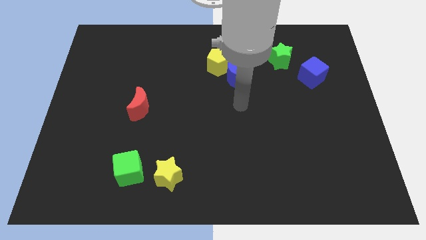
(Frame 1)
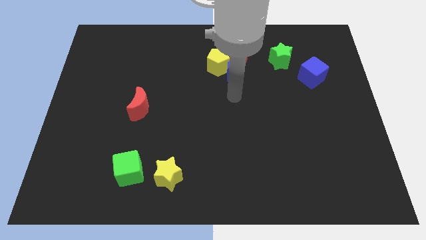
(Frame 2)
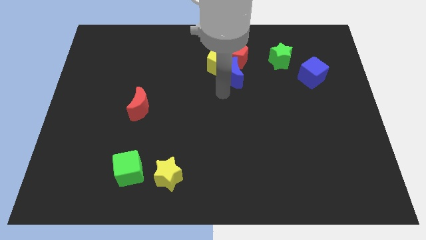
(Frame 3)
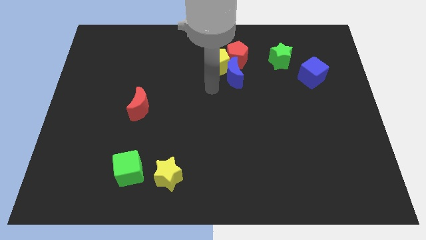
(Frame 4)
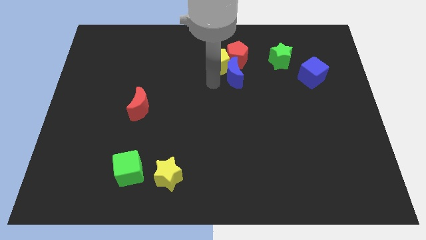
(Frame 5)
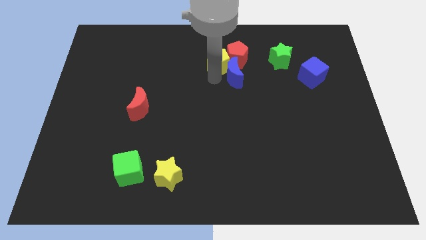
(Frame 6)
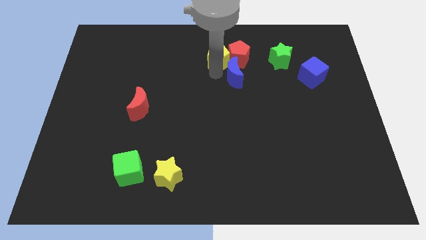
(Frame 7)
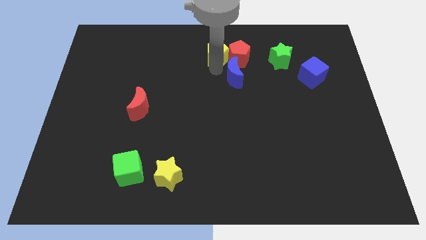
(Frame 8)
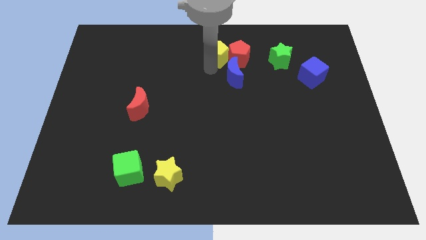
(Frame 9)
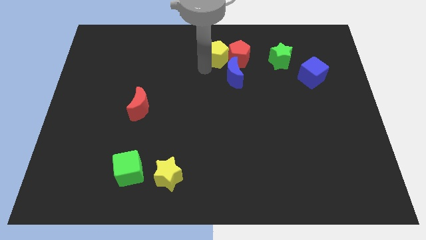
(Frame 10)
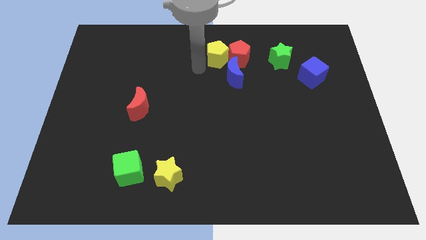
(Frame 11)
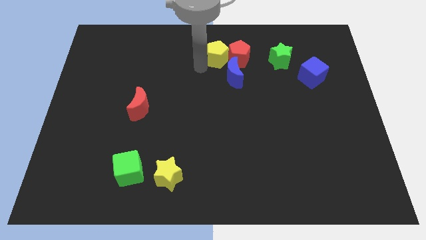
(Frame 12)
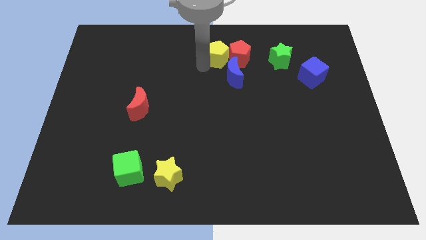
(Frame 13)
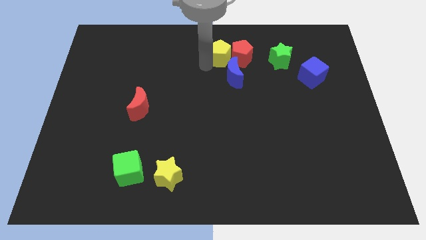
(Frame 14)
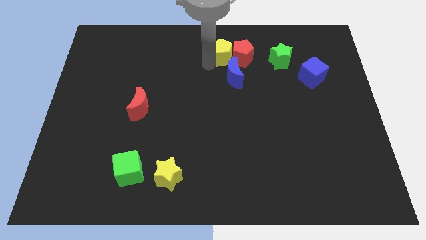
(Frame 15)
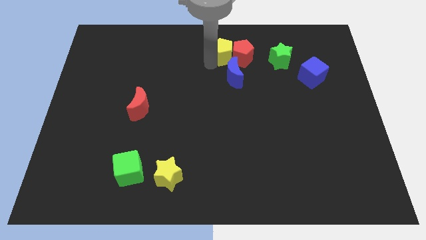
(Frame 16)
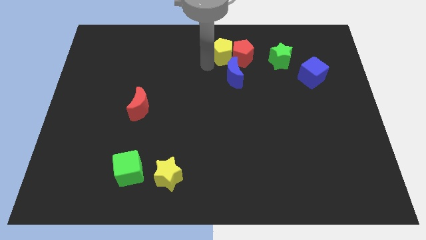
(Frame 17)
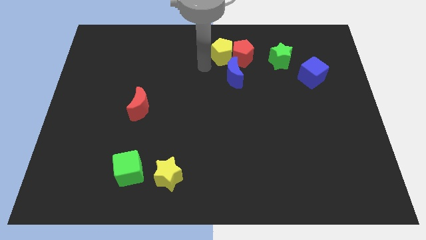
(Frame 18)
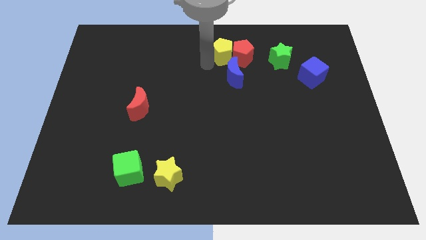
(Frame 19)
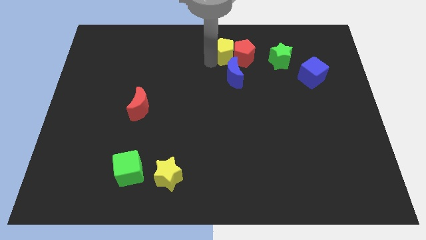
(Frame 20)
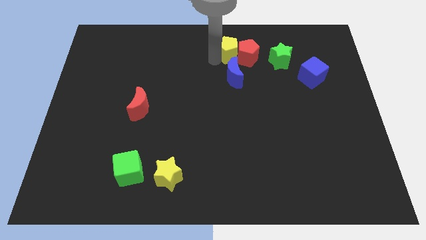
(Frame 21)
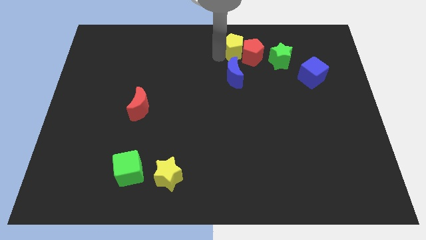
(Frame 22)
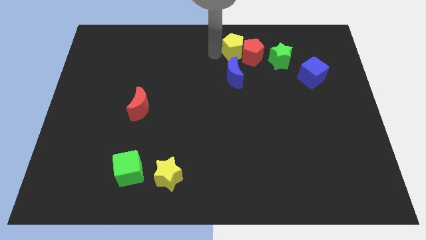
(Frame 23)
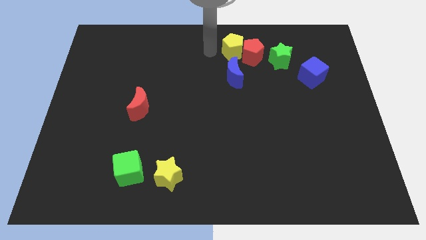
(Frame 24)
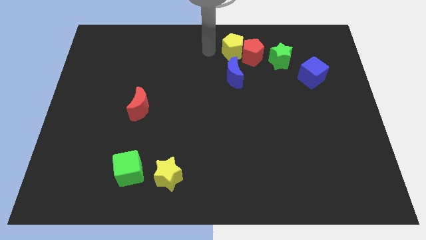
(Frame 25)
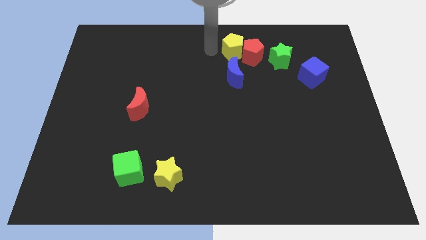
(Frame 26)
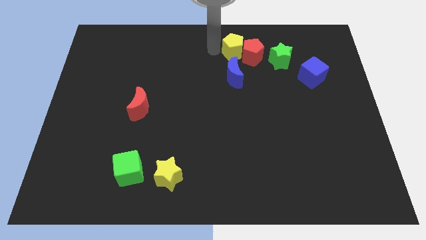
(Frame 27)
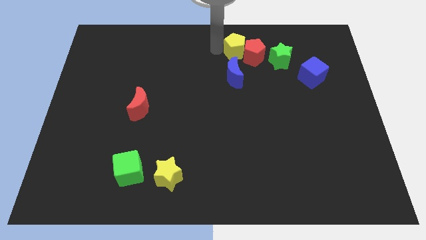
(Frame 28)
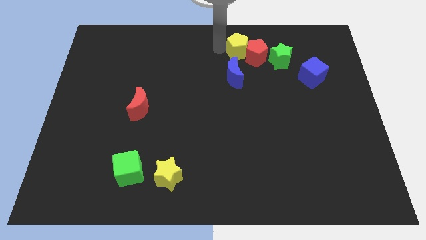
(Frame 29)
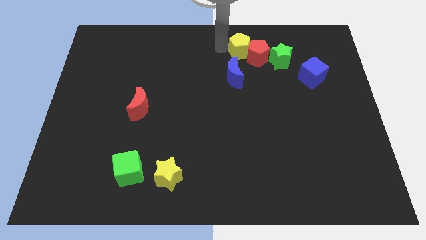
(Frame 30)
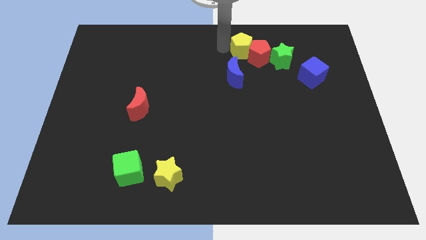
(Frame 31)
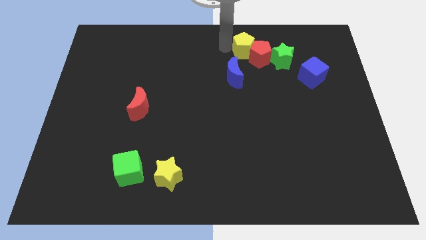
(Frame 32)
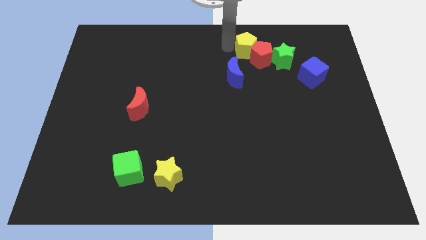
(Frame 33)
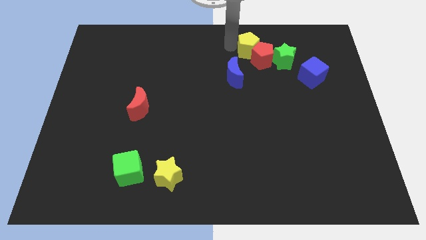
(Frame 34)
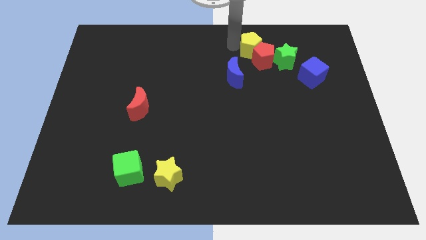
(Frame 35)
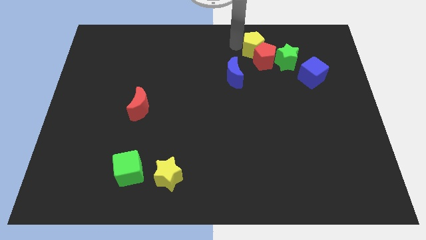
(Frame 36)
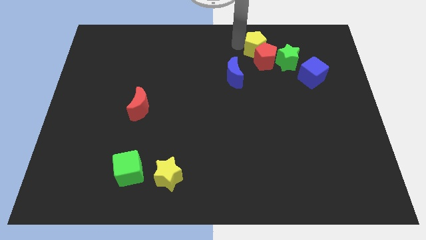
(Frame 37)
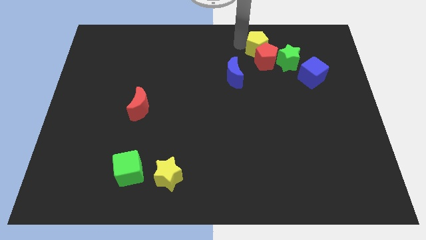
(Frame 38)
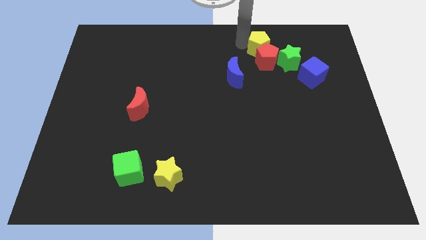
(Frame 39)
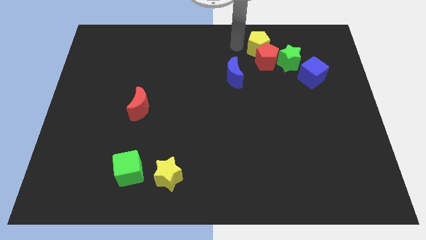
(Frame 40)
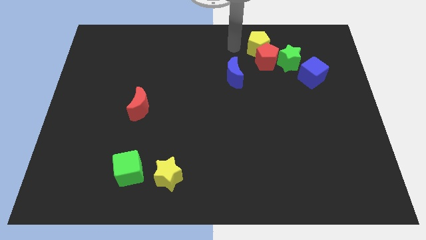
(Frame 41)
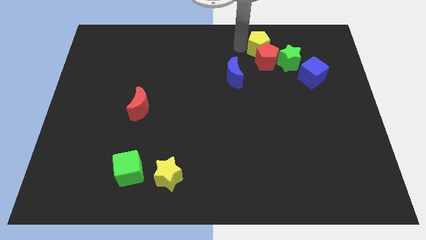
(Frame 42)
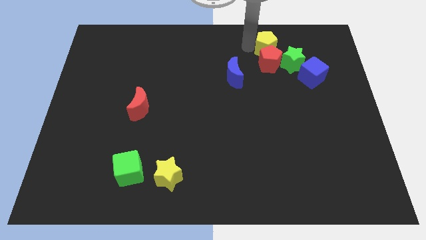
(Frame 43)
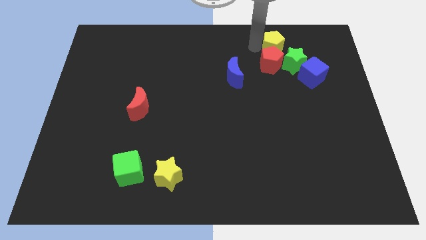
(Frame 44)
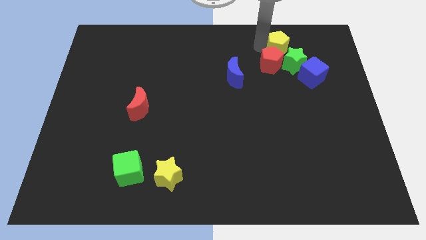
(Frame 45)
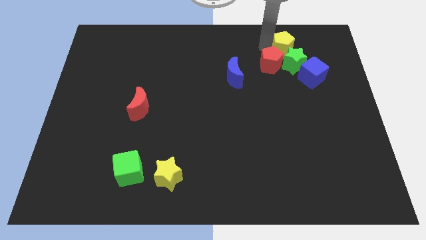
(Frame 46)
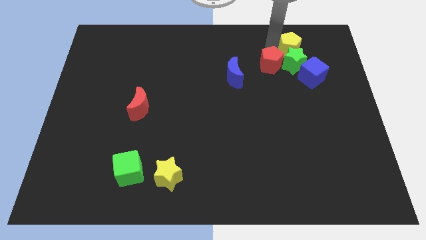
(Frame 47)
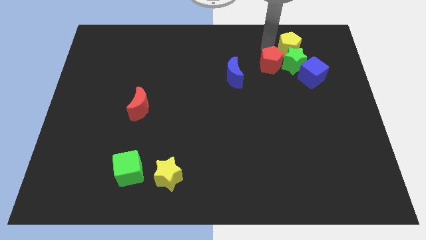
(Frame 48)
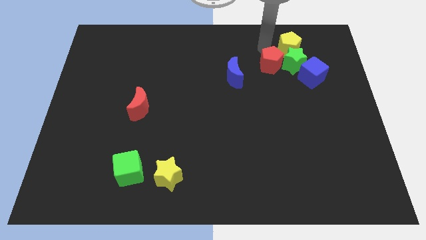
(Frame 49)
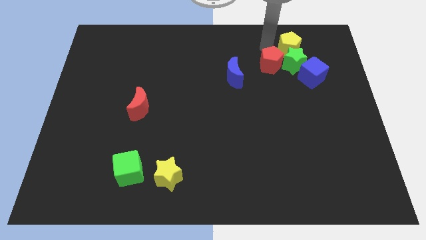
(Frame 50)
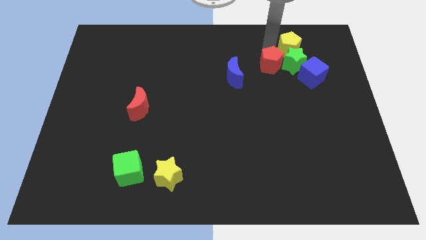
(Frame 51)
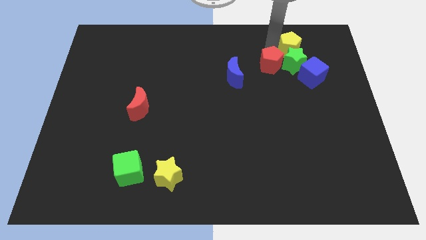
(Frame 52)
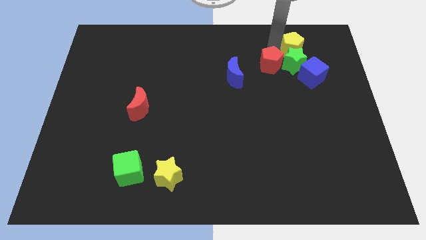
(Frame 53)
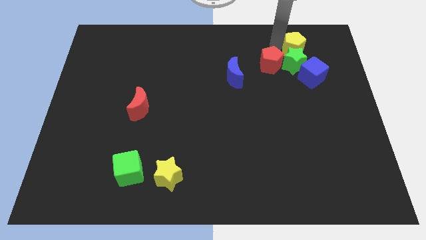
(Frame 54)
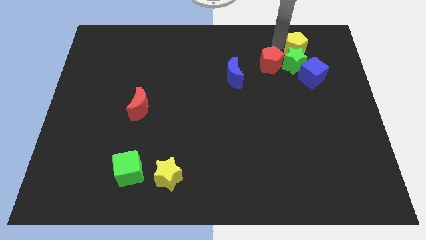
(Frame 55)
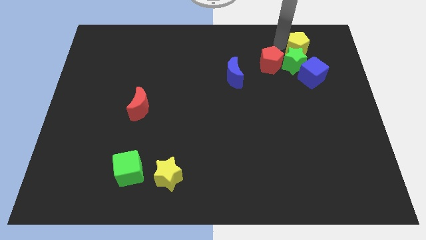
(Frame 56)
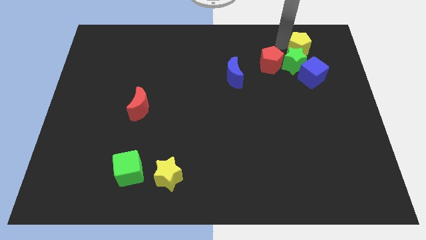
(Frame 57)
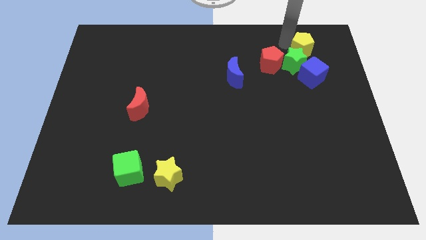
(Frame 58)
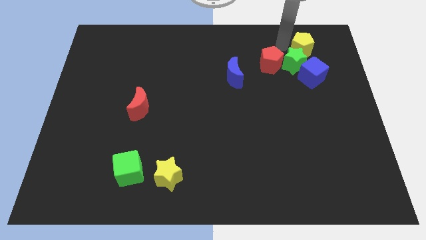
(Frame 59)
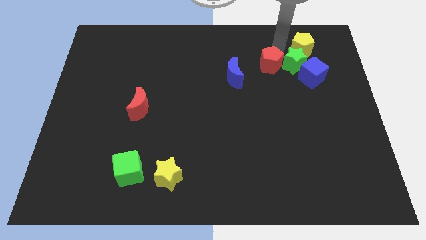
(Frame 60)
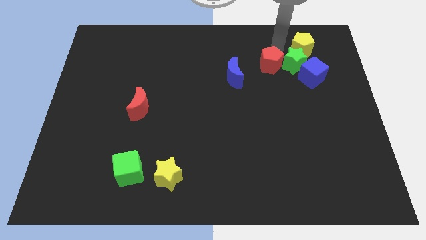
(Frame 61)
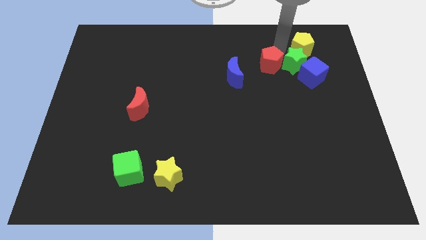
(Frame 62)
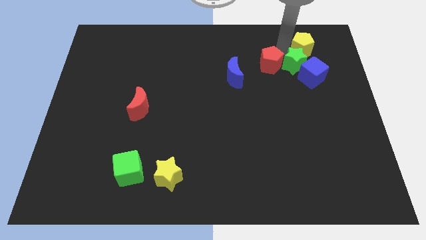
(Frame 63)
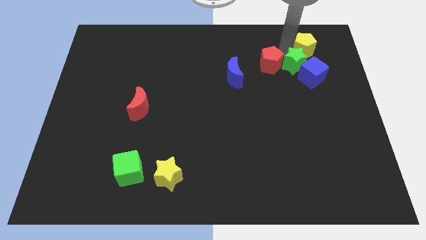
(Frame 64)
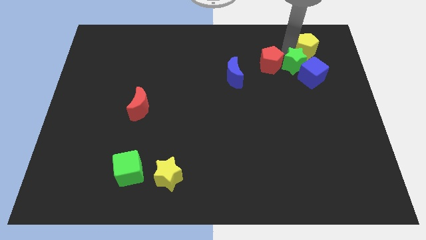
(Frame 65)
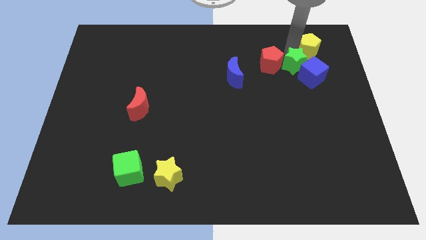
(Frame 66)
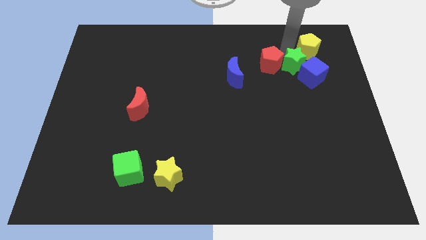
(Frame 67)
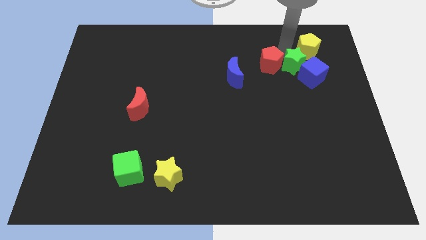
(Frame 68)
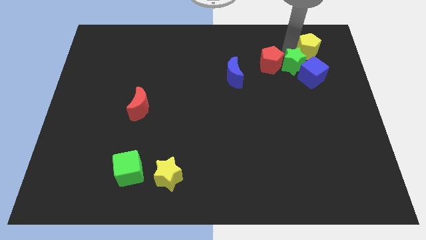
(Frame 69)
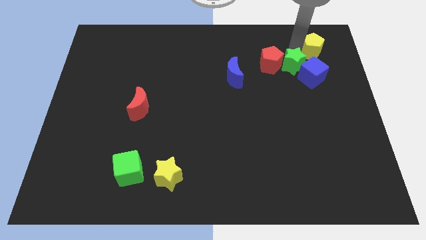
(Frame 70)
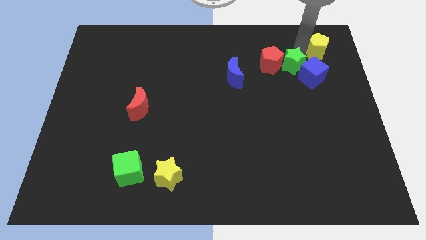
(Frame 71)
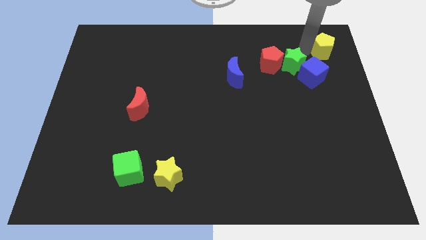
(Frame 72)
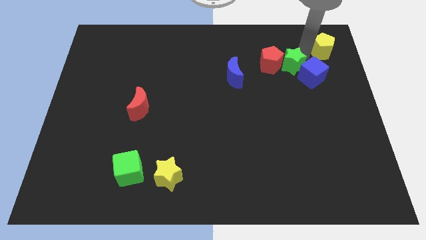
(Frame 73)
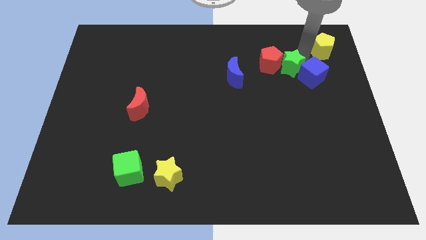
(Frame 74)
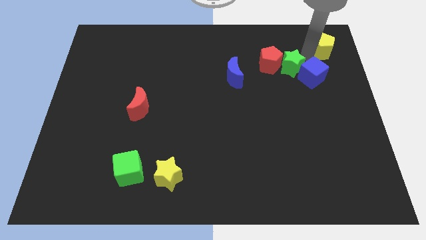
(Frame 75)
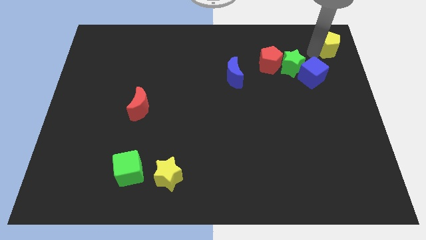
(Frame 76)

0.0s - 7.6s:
slide the yellow pentagon to the upper right corner
